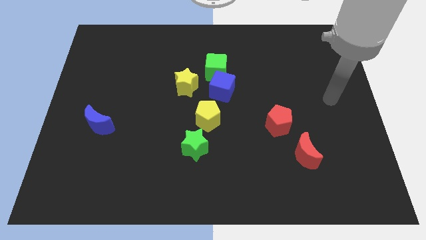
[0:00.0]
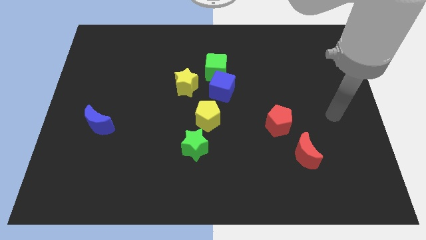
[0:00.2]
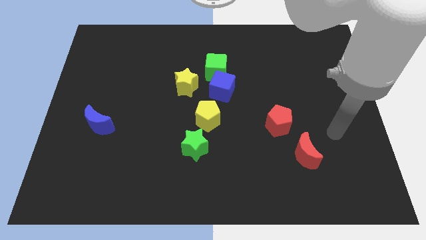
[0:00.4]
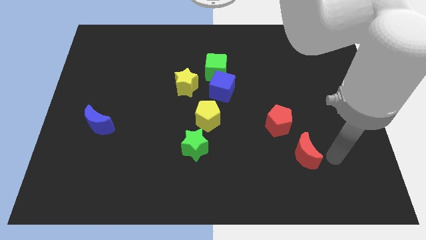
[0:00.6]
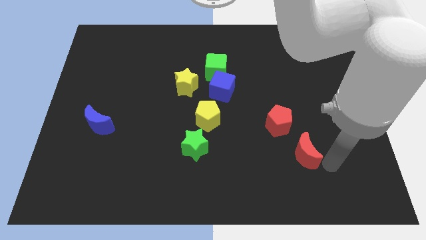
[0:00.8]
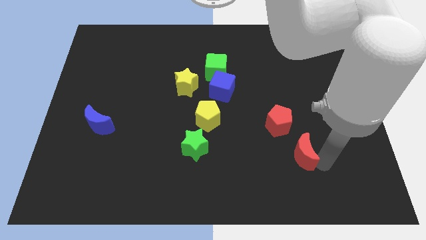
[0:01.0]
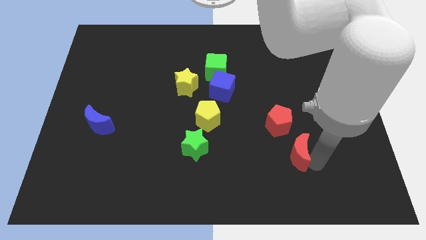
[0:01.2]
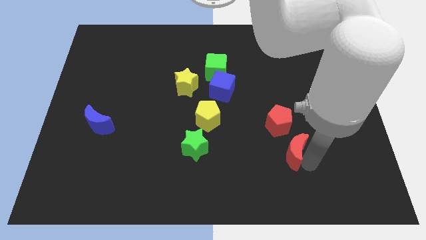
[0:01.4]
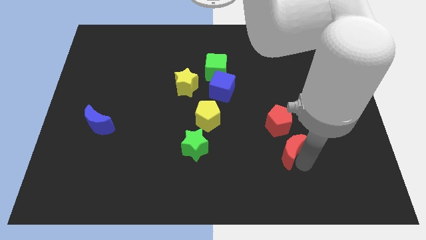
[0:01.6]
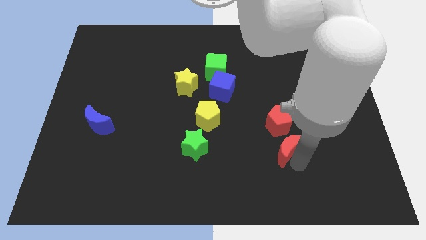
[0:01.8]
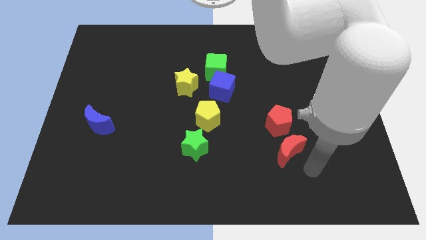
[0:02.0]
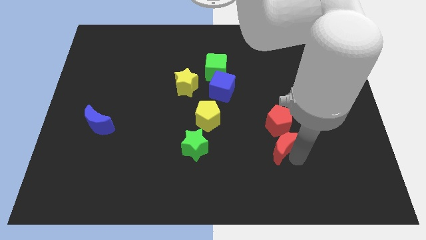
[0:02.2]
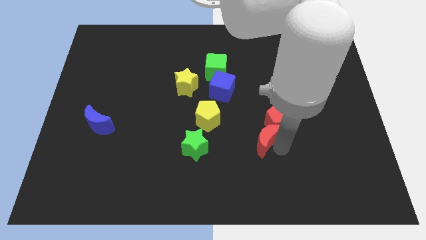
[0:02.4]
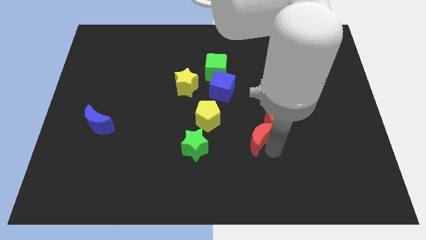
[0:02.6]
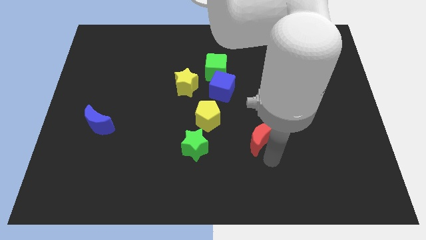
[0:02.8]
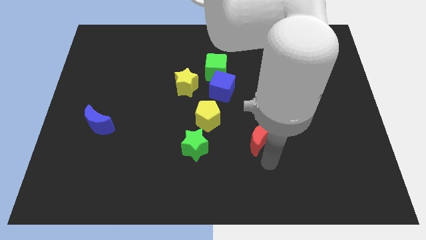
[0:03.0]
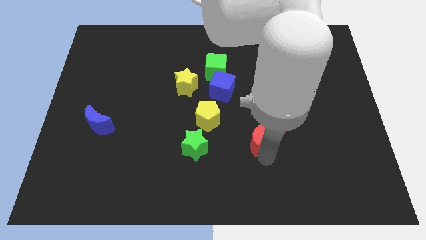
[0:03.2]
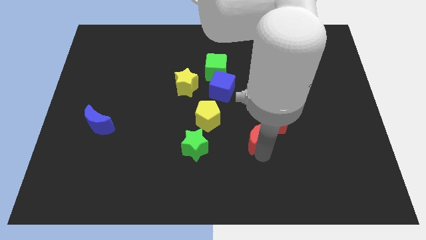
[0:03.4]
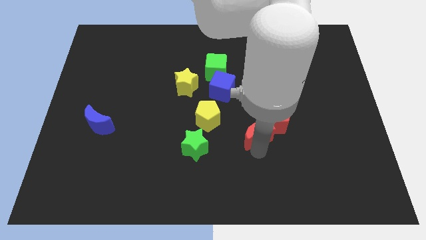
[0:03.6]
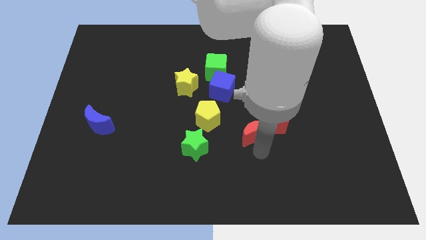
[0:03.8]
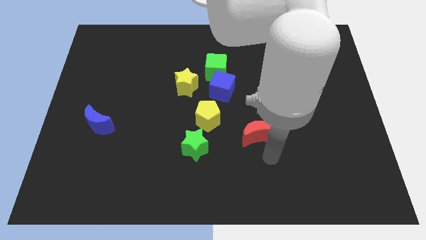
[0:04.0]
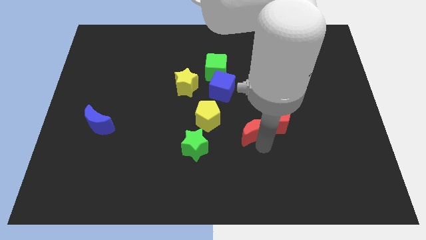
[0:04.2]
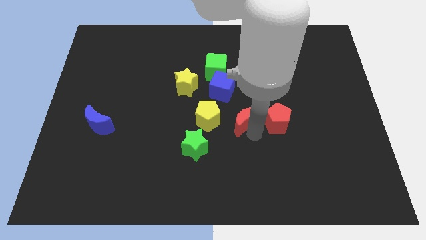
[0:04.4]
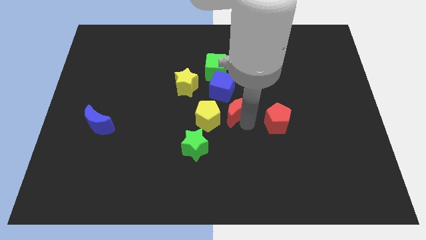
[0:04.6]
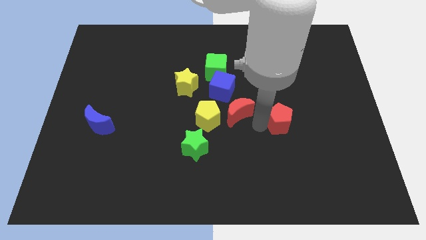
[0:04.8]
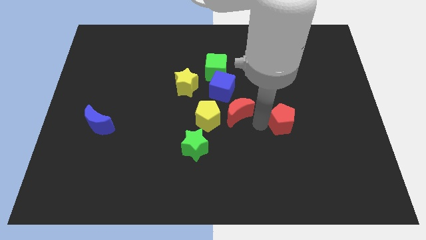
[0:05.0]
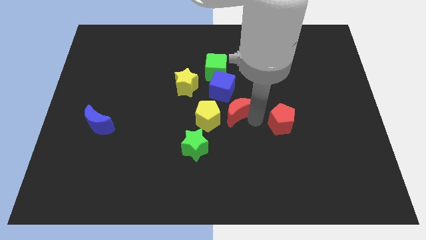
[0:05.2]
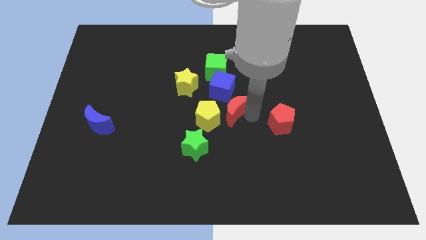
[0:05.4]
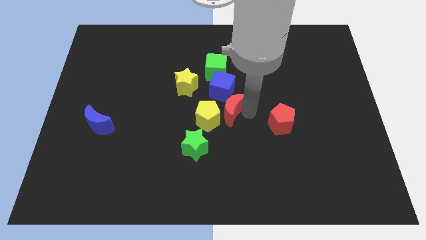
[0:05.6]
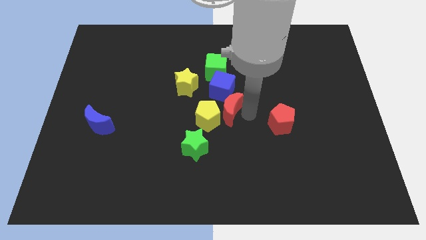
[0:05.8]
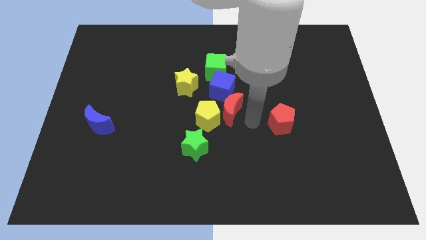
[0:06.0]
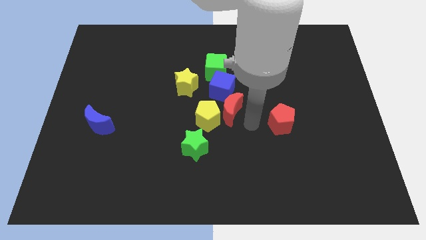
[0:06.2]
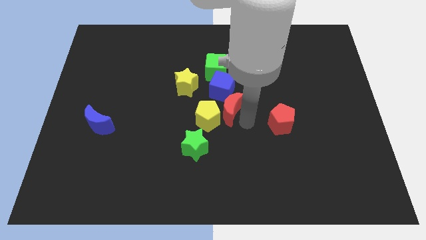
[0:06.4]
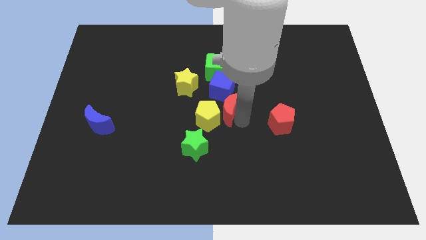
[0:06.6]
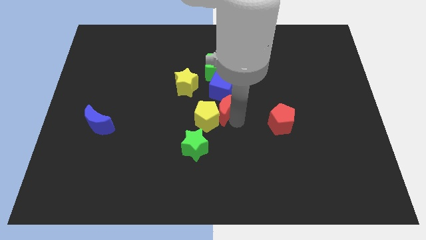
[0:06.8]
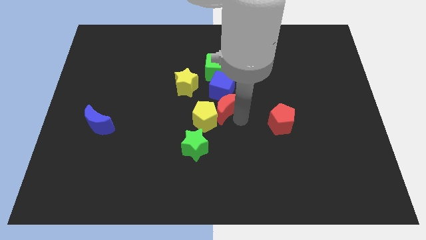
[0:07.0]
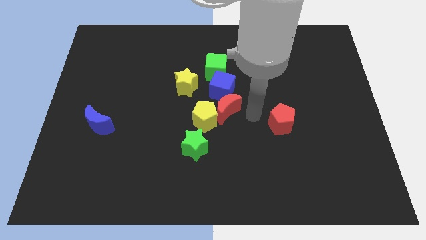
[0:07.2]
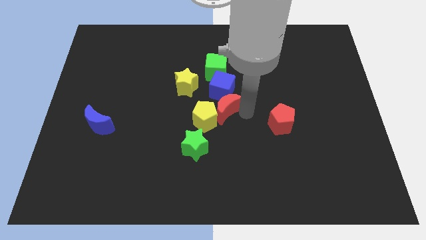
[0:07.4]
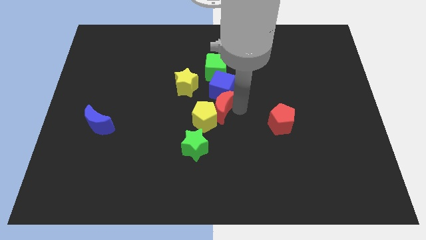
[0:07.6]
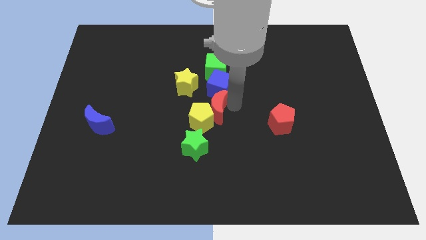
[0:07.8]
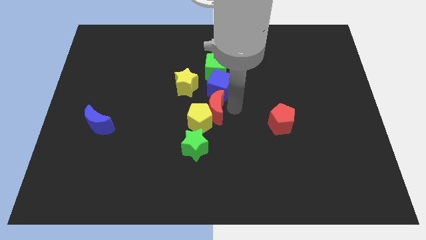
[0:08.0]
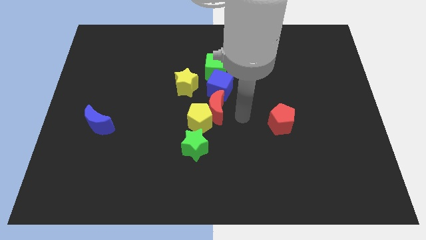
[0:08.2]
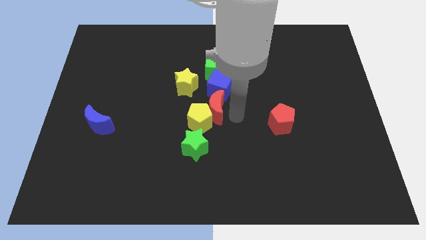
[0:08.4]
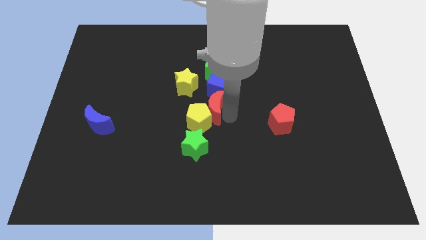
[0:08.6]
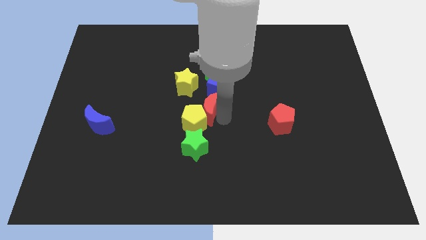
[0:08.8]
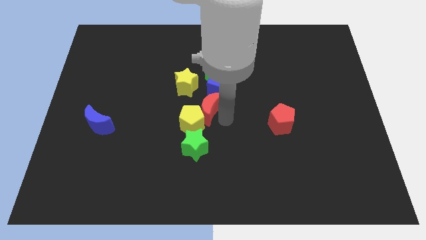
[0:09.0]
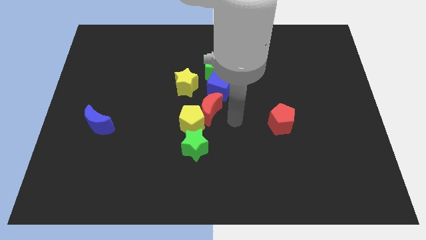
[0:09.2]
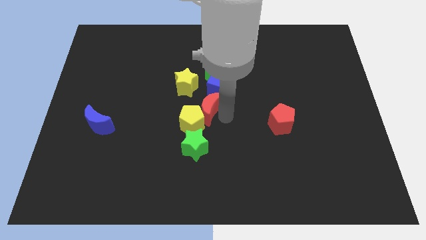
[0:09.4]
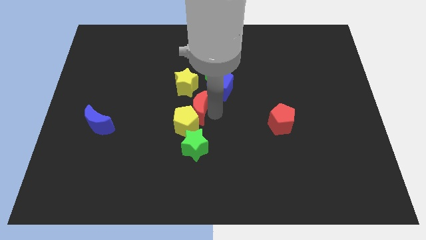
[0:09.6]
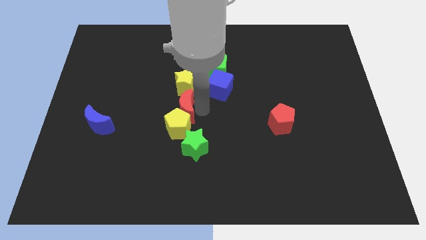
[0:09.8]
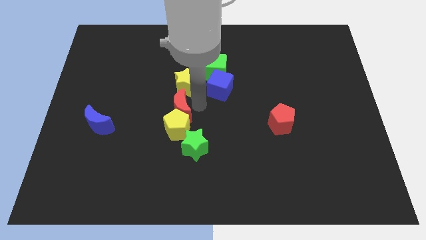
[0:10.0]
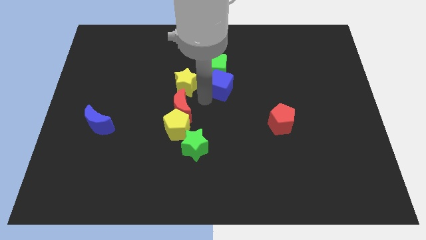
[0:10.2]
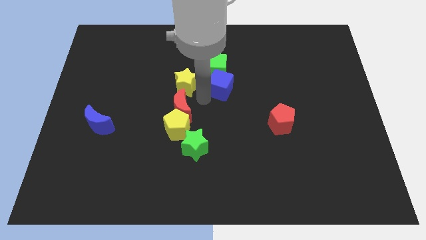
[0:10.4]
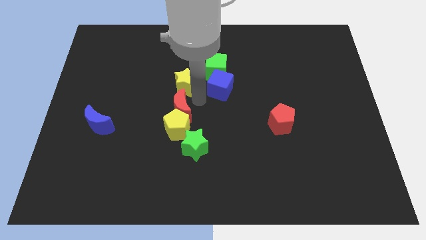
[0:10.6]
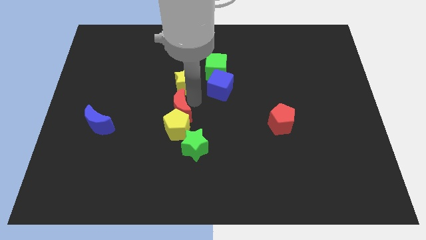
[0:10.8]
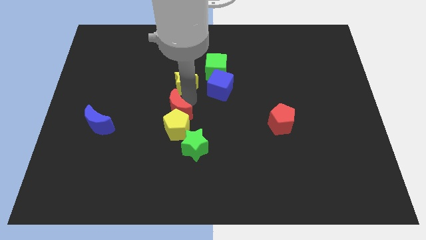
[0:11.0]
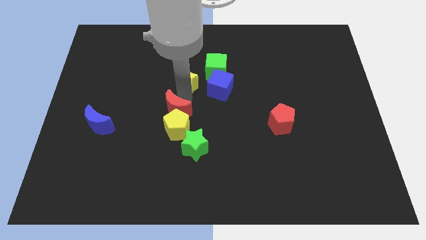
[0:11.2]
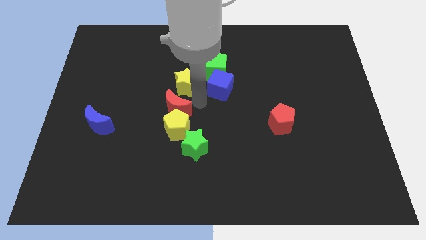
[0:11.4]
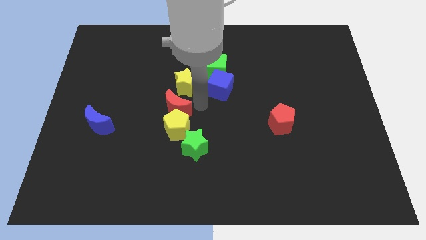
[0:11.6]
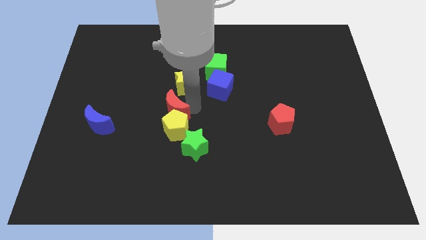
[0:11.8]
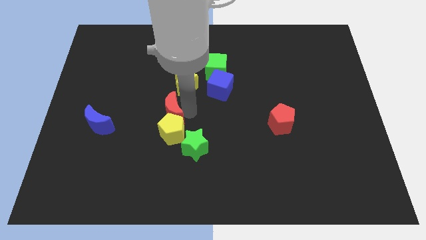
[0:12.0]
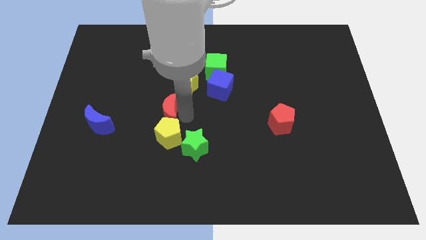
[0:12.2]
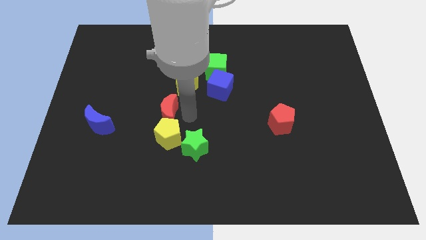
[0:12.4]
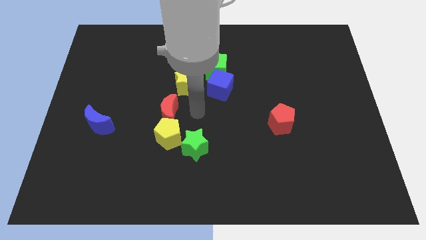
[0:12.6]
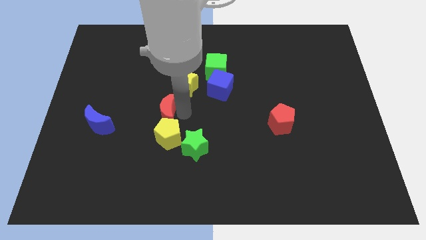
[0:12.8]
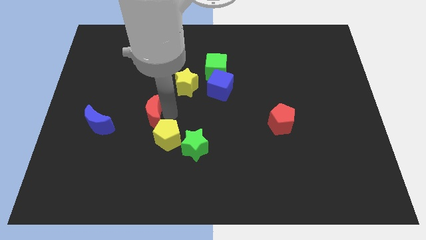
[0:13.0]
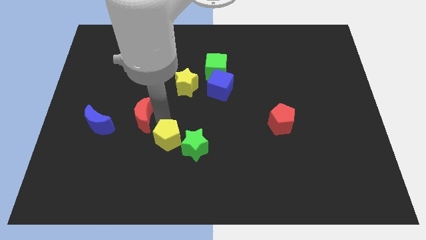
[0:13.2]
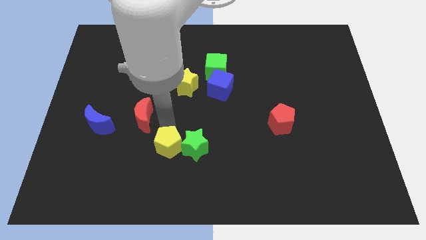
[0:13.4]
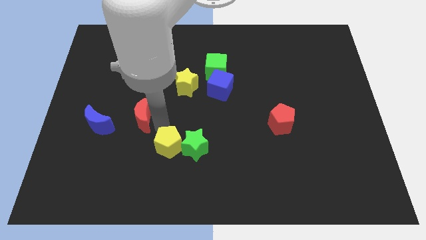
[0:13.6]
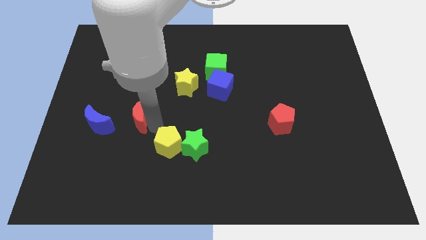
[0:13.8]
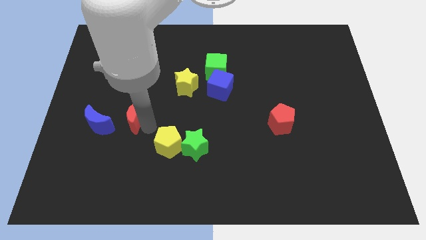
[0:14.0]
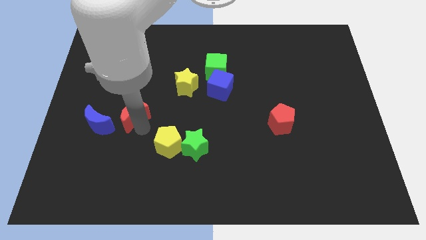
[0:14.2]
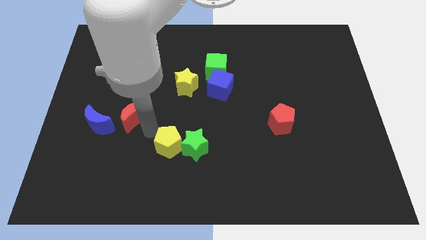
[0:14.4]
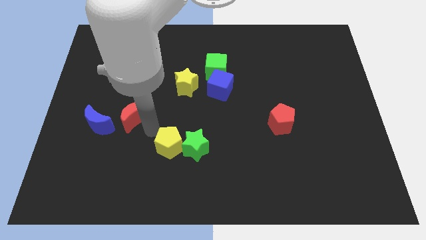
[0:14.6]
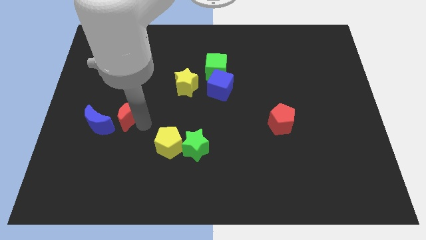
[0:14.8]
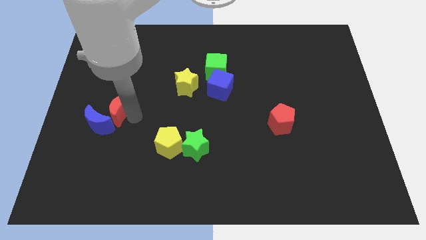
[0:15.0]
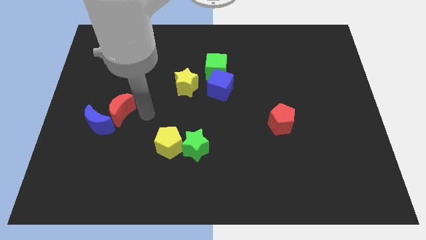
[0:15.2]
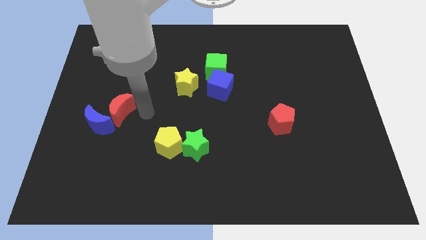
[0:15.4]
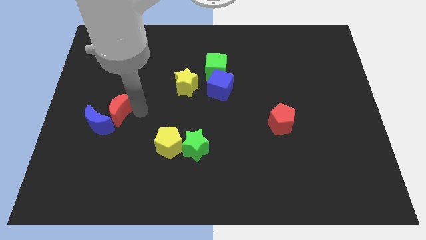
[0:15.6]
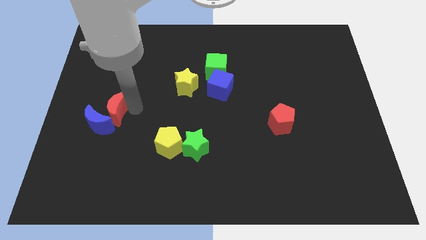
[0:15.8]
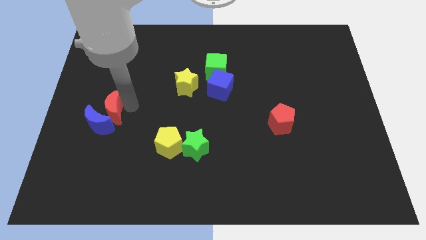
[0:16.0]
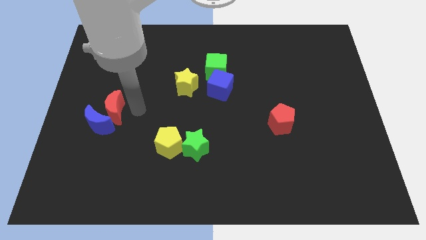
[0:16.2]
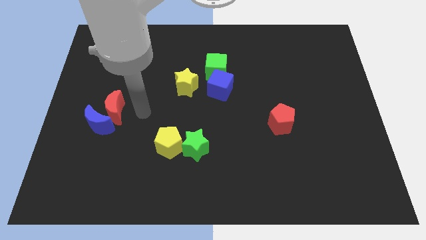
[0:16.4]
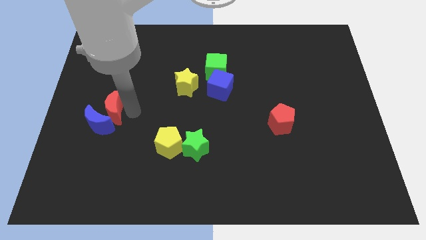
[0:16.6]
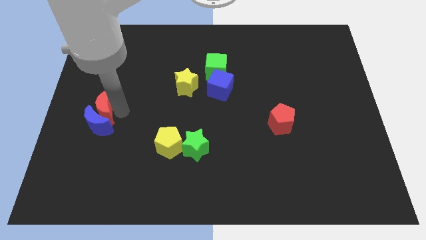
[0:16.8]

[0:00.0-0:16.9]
put the red moon to the left side of the board
